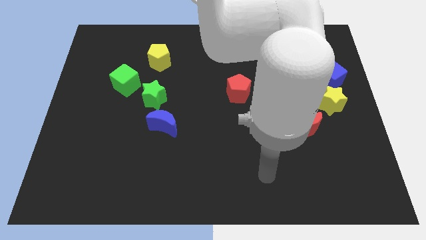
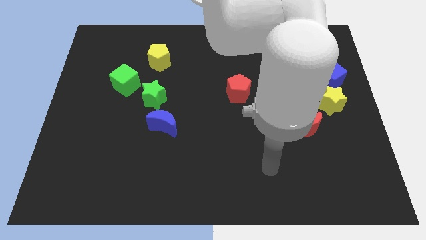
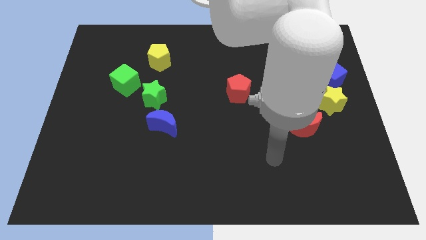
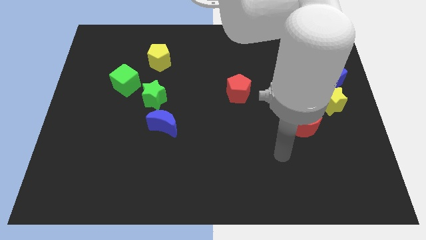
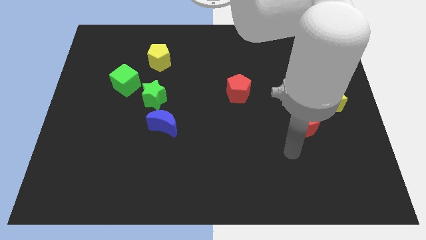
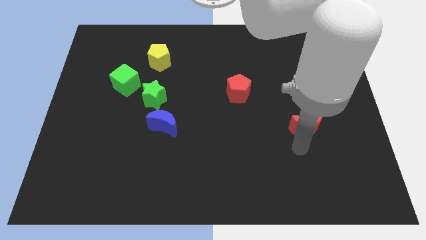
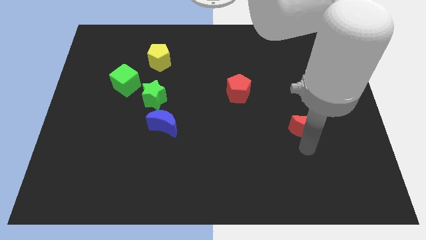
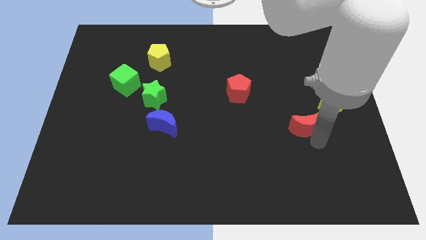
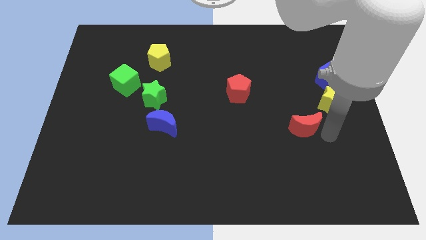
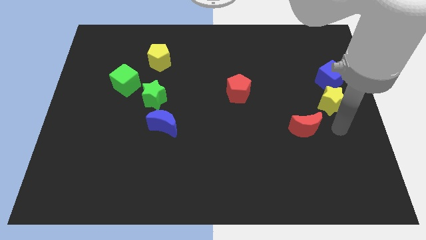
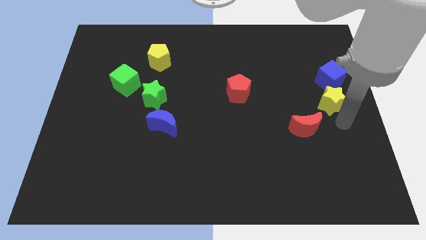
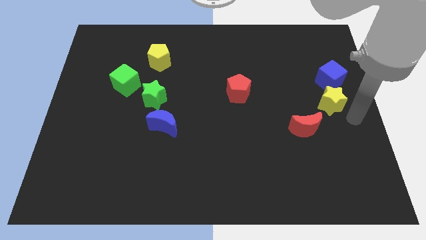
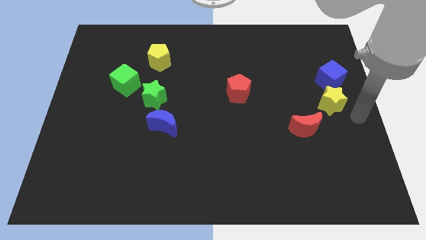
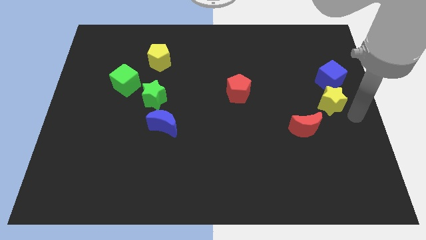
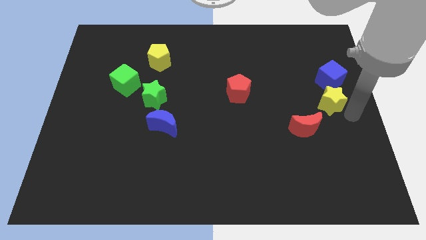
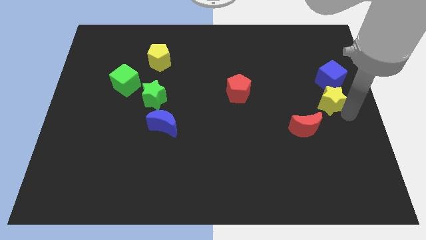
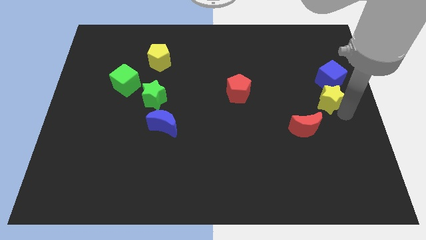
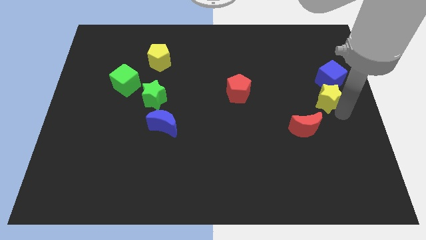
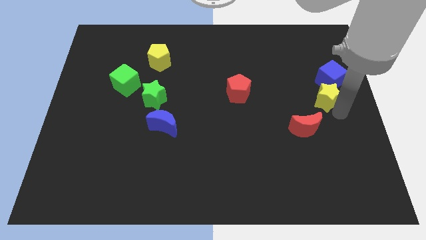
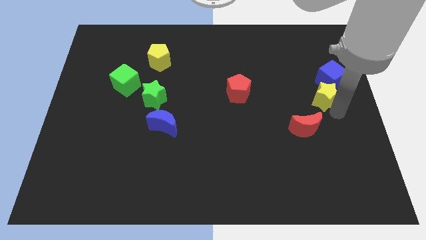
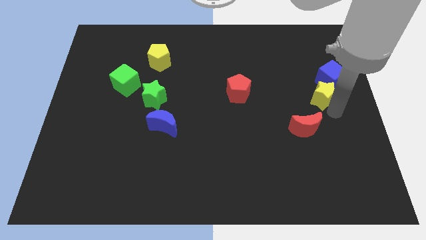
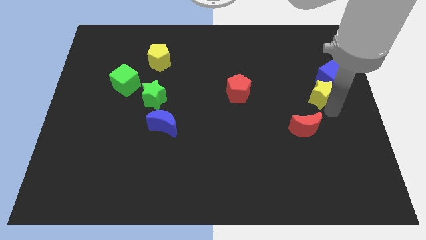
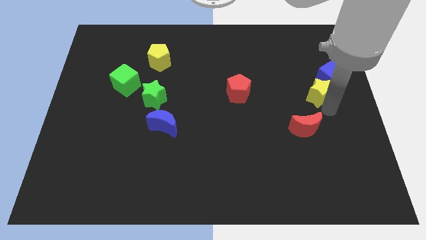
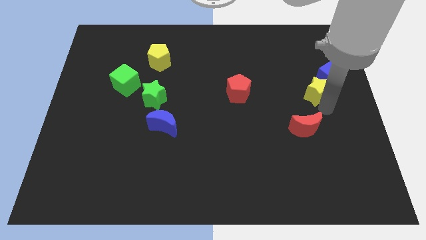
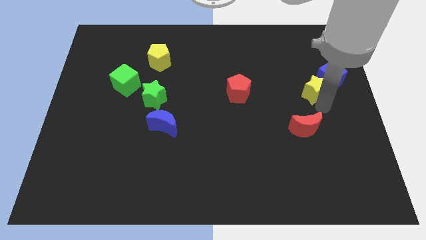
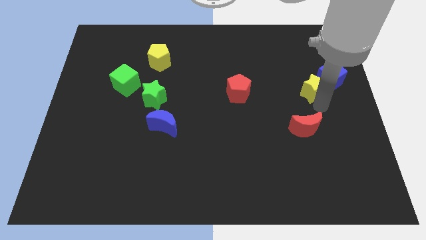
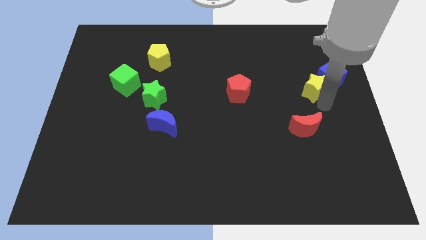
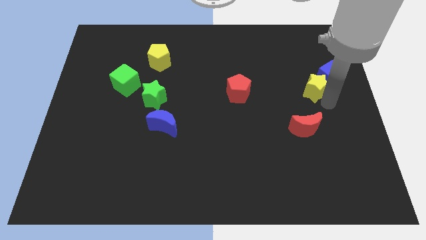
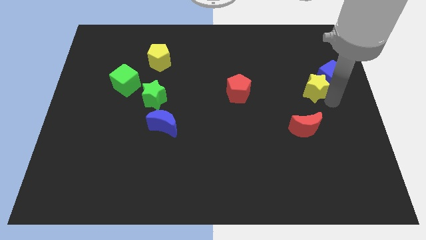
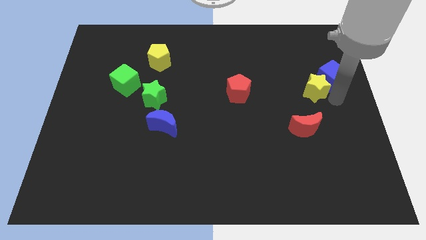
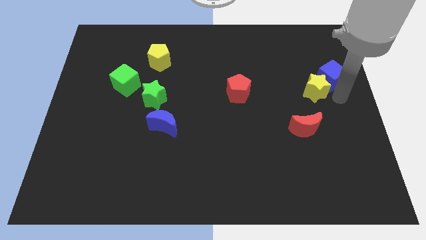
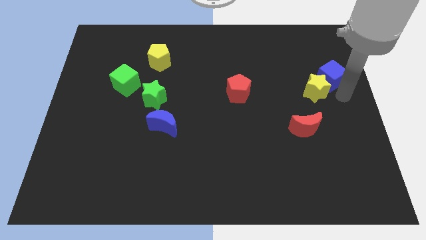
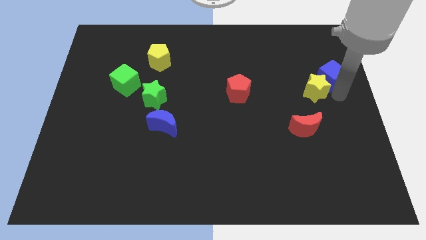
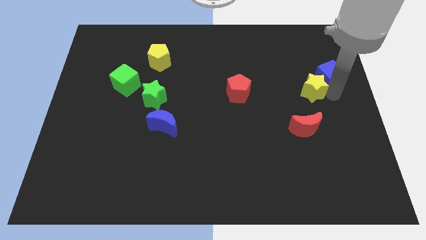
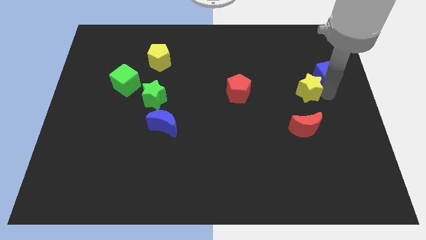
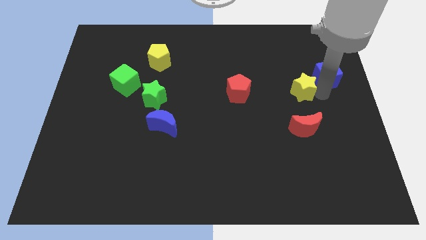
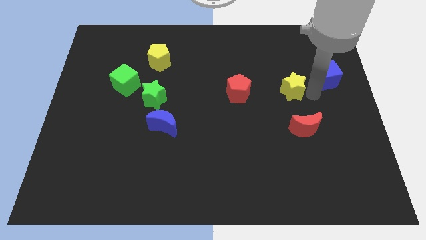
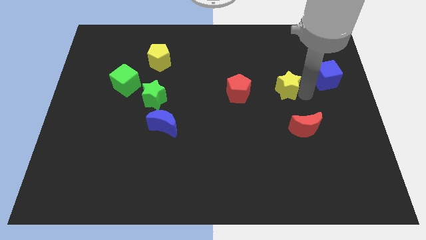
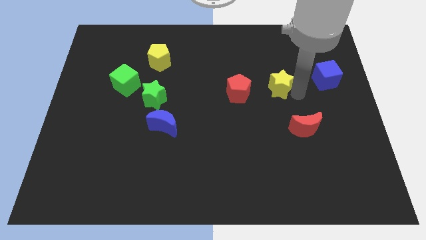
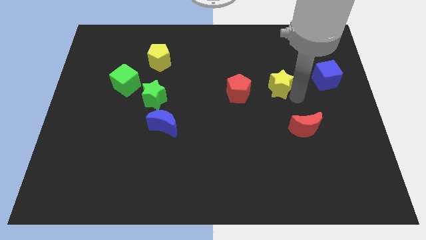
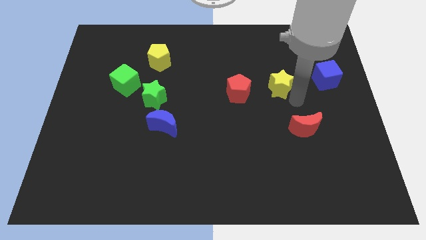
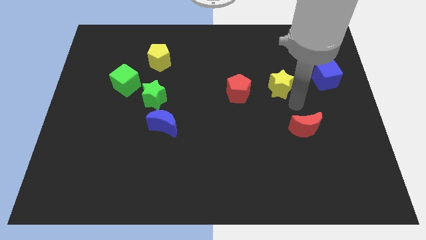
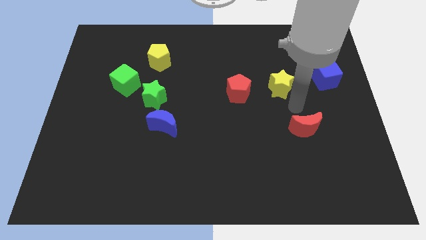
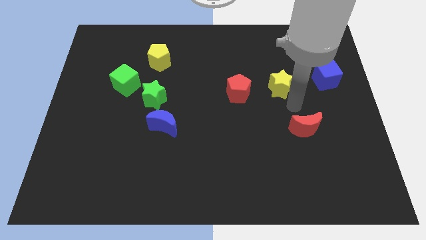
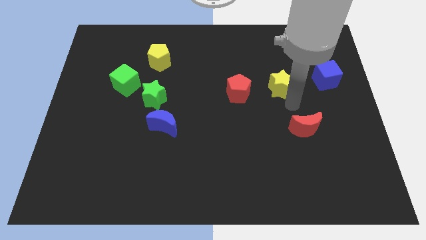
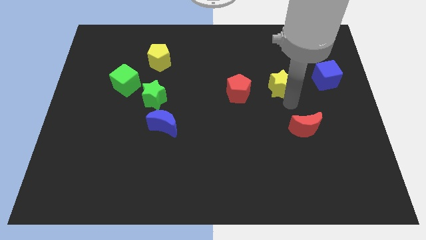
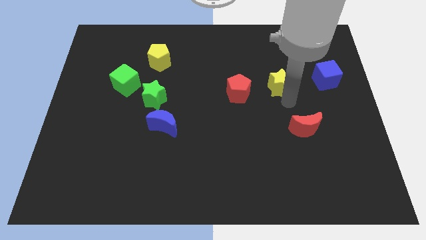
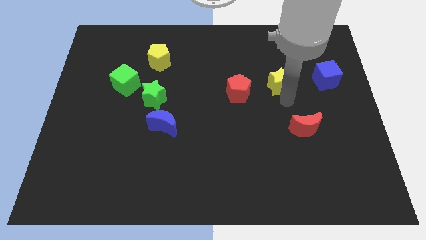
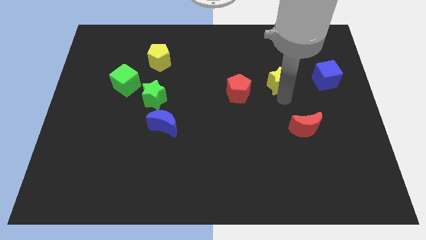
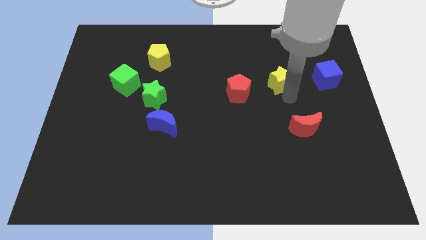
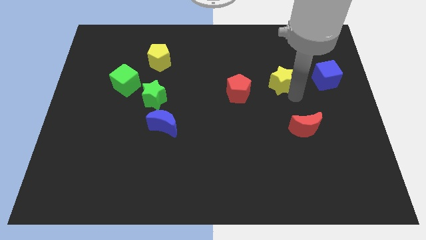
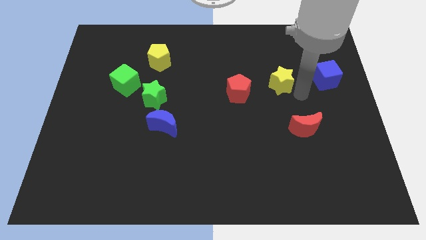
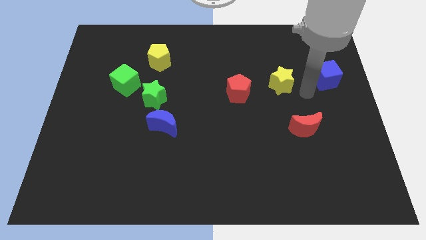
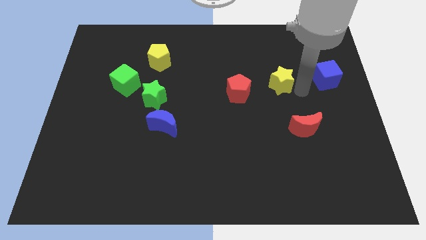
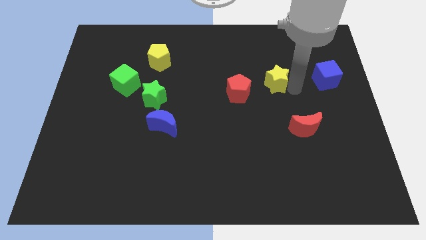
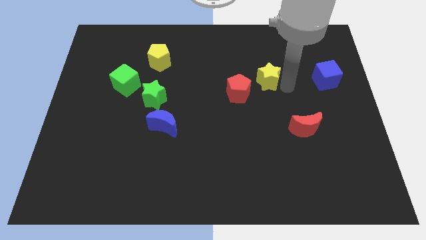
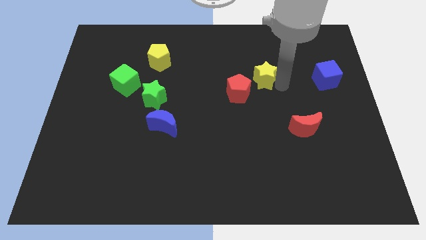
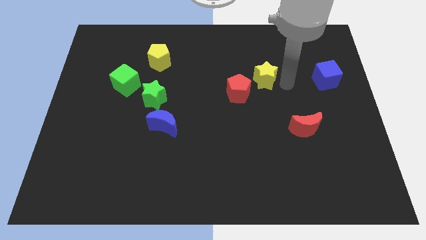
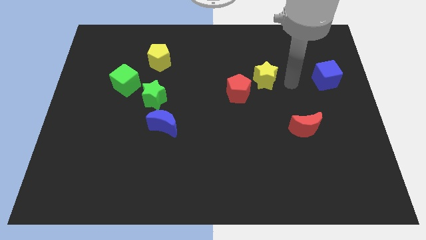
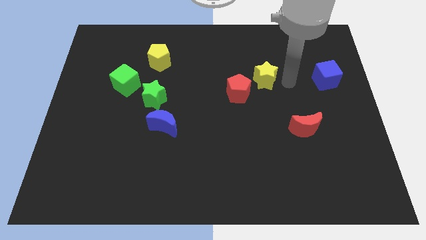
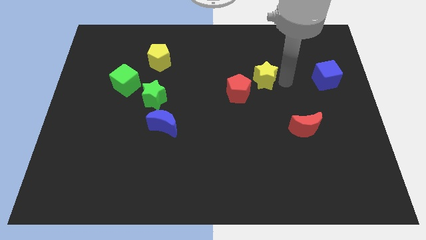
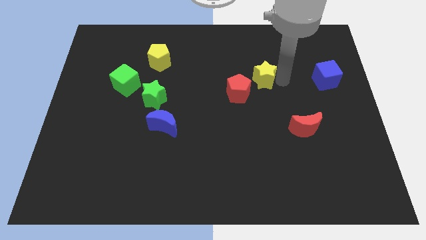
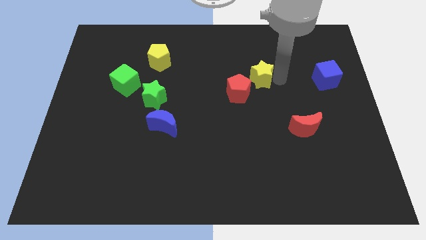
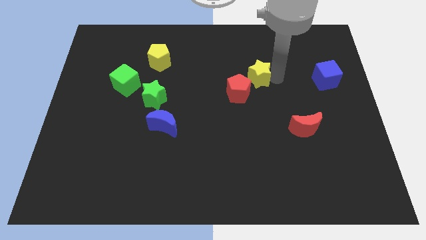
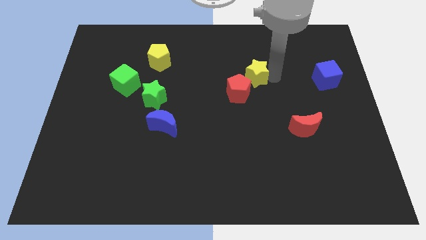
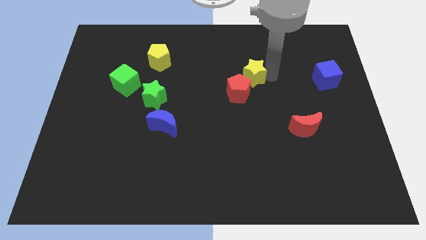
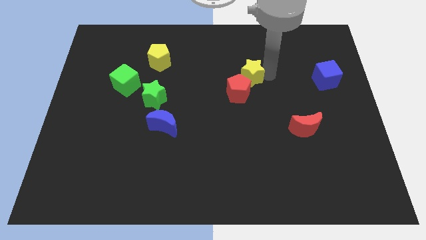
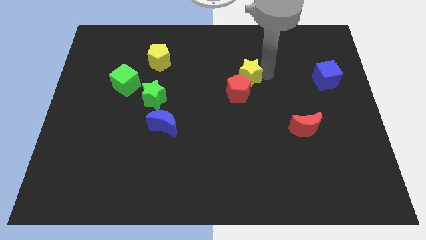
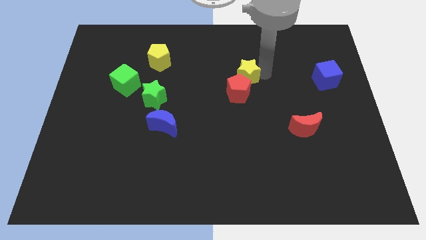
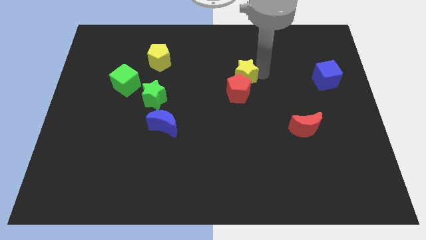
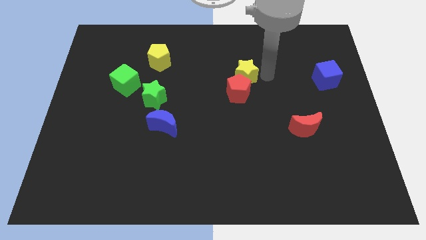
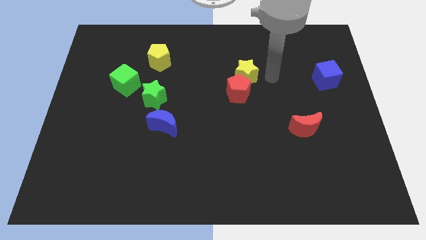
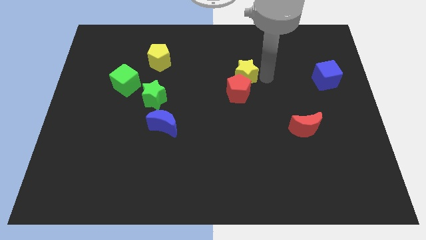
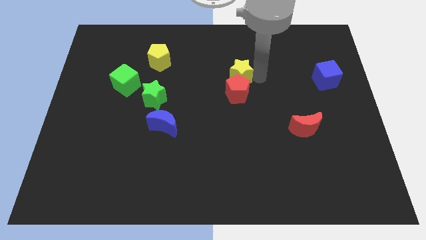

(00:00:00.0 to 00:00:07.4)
slide the yellow star diagonally up and to the left of the red pentagon
